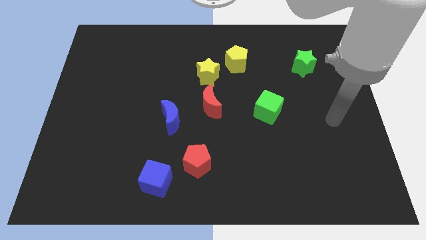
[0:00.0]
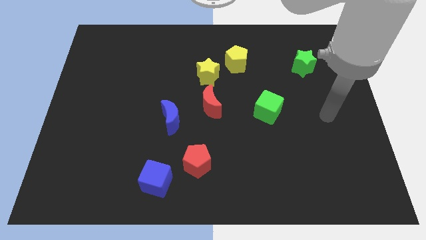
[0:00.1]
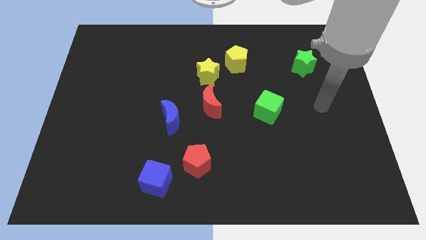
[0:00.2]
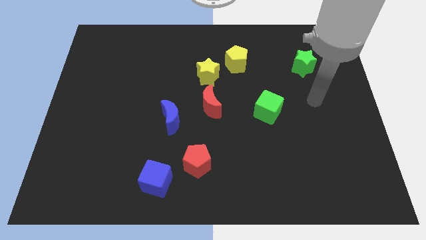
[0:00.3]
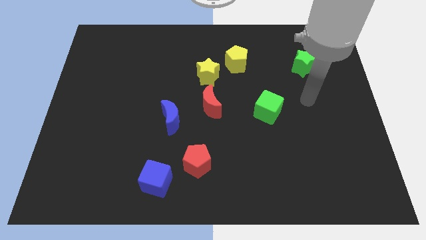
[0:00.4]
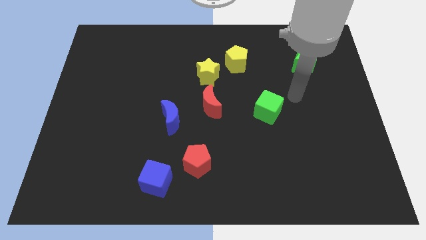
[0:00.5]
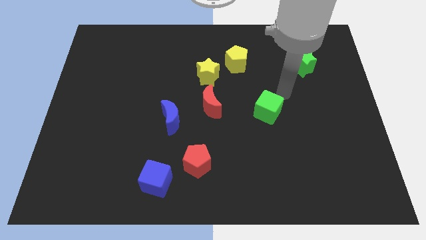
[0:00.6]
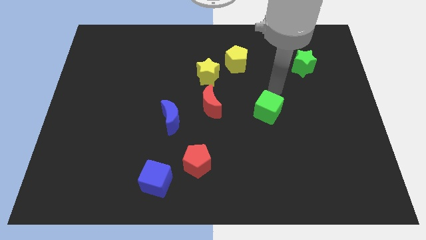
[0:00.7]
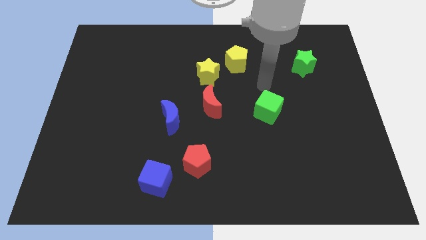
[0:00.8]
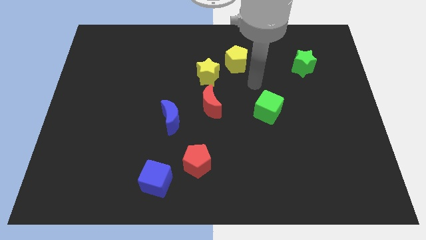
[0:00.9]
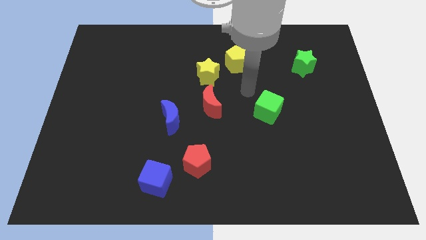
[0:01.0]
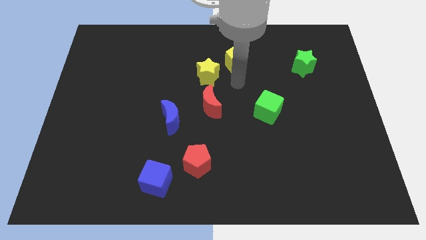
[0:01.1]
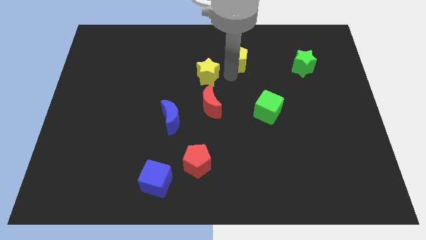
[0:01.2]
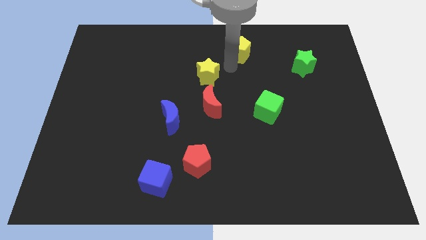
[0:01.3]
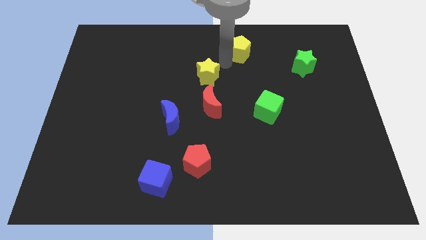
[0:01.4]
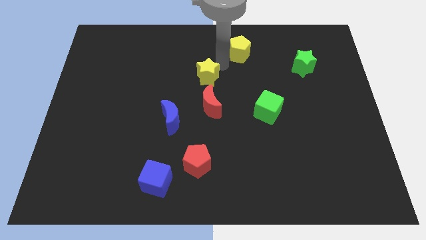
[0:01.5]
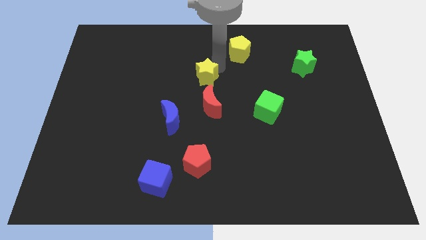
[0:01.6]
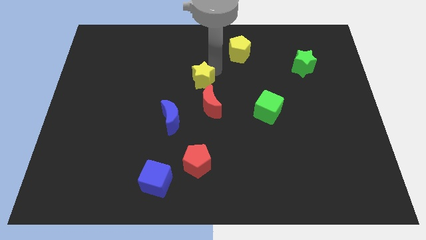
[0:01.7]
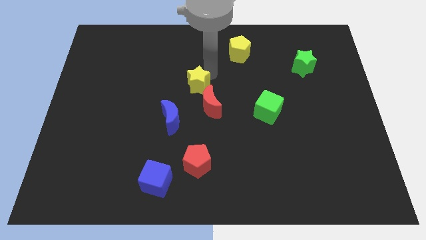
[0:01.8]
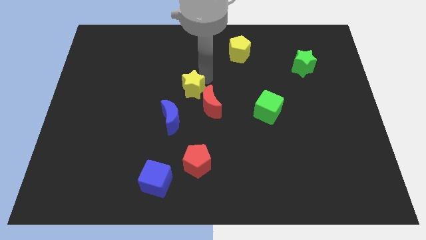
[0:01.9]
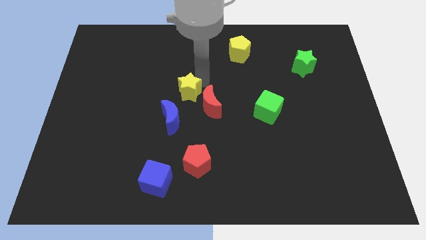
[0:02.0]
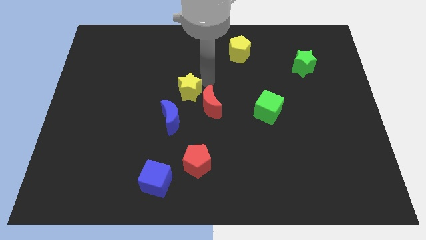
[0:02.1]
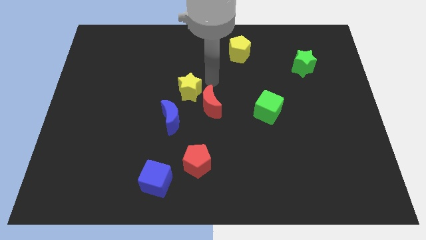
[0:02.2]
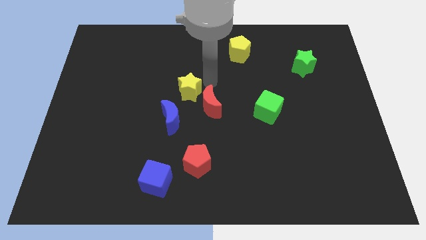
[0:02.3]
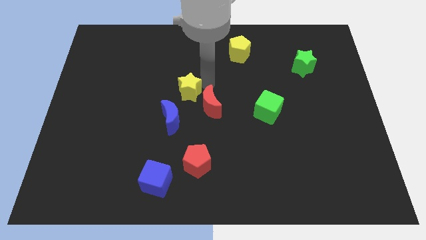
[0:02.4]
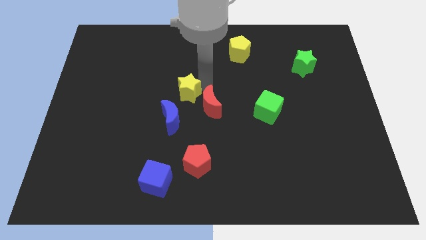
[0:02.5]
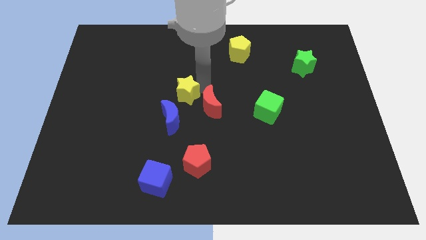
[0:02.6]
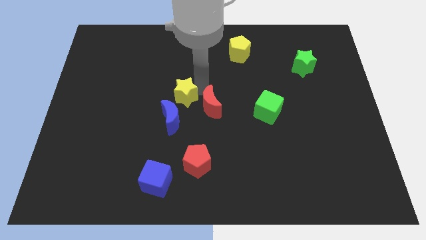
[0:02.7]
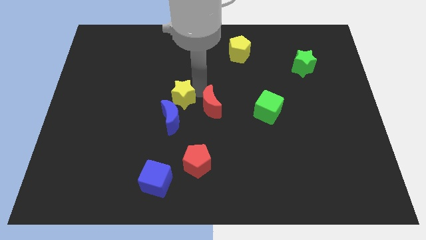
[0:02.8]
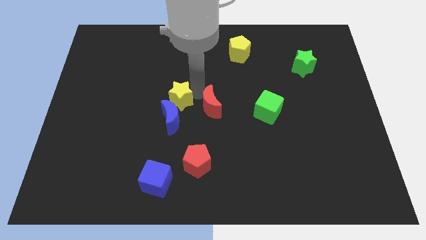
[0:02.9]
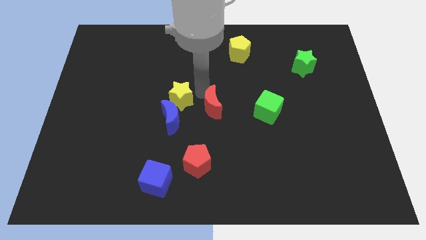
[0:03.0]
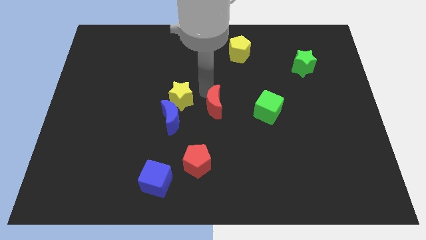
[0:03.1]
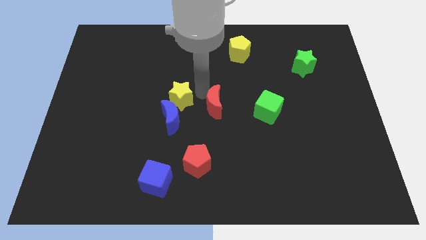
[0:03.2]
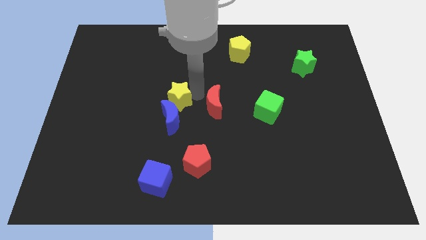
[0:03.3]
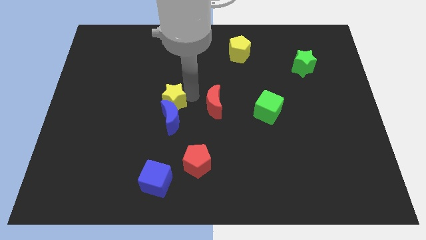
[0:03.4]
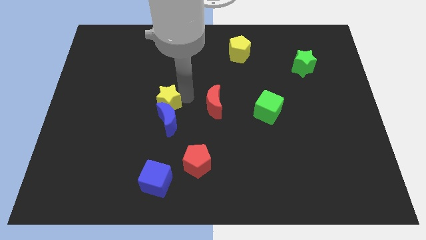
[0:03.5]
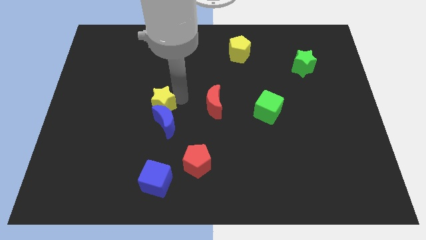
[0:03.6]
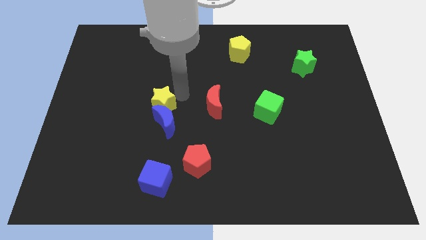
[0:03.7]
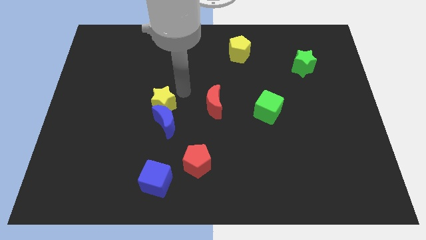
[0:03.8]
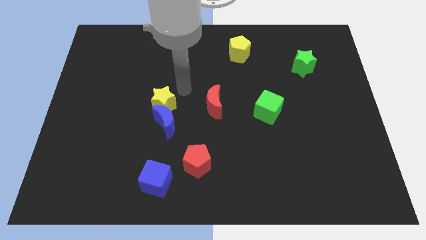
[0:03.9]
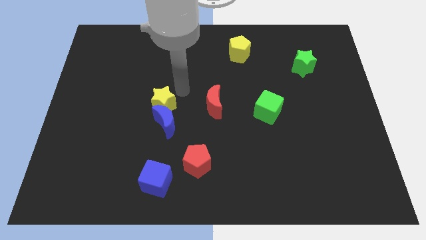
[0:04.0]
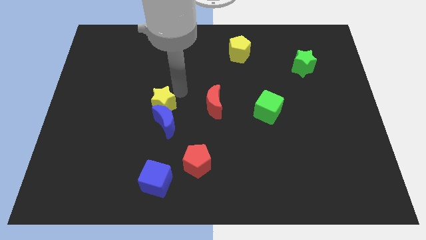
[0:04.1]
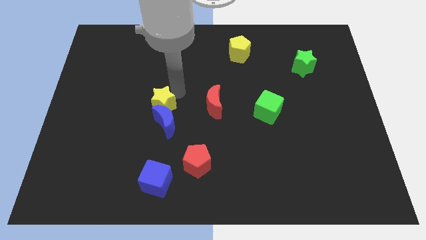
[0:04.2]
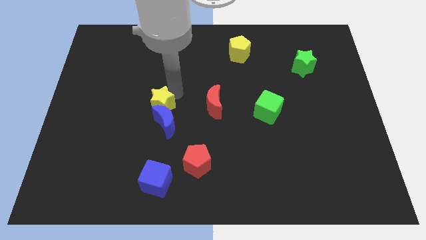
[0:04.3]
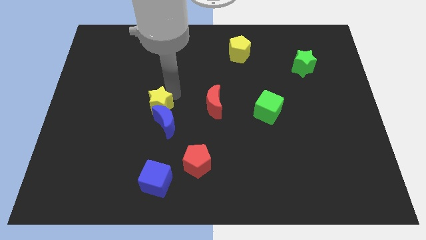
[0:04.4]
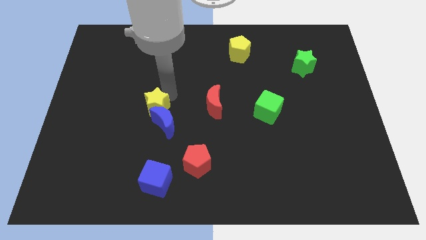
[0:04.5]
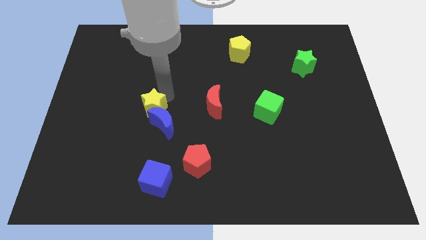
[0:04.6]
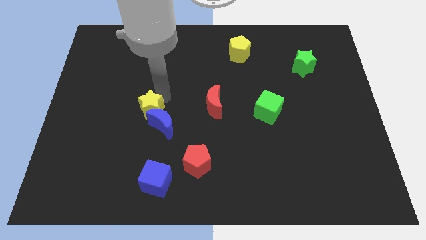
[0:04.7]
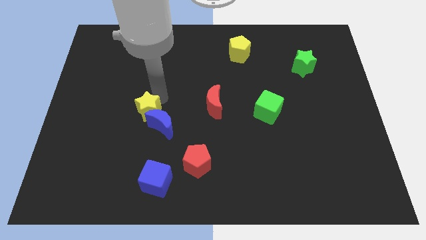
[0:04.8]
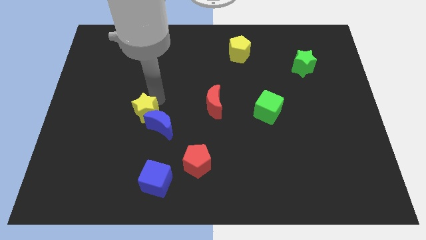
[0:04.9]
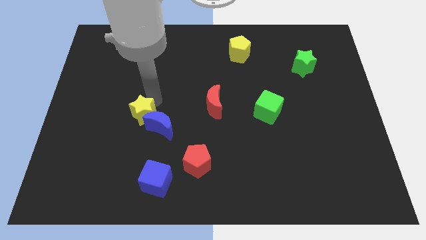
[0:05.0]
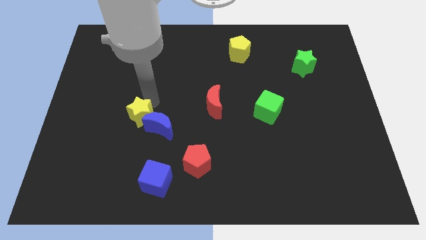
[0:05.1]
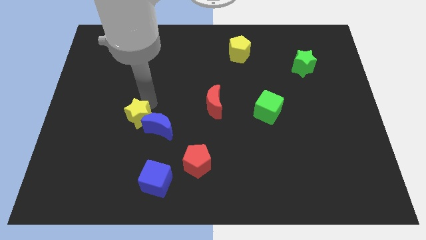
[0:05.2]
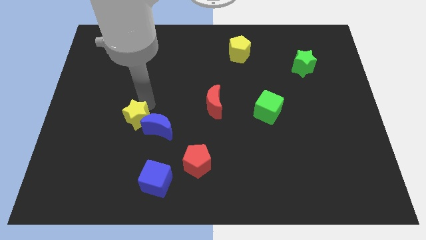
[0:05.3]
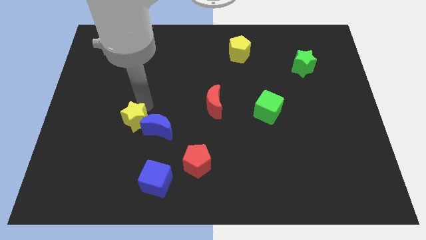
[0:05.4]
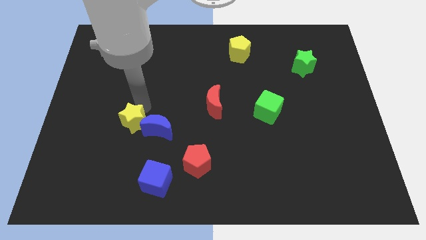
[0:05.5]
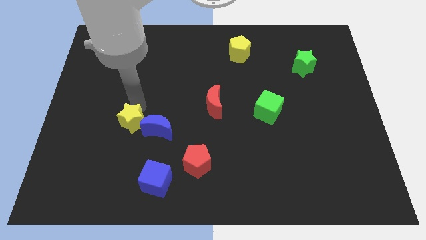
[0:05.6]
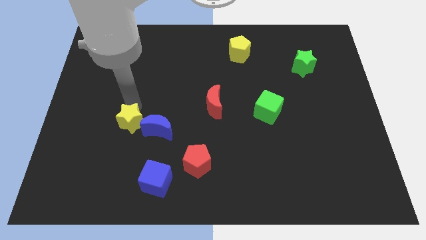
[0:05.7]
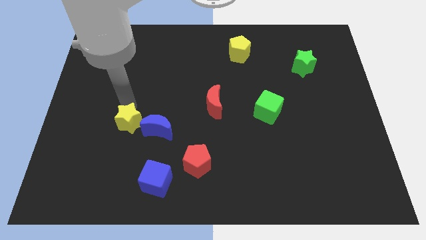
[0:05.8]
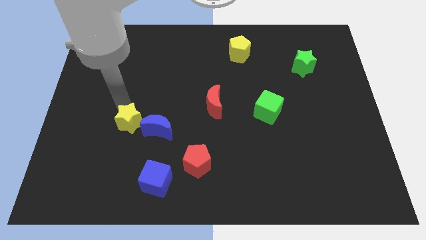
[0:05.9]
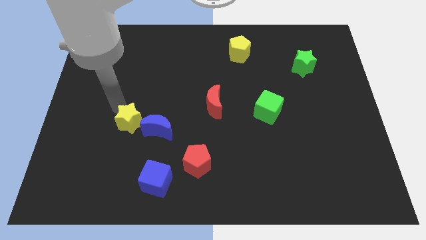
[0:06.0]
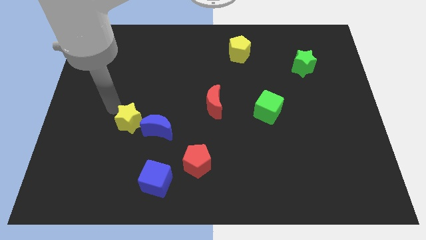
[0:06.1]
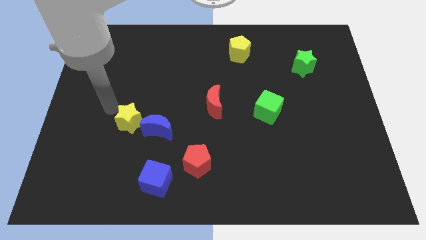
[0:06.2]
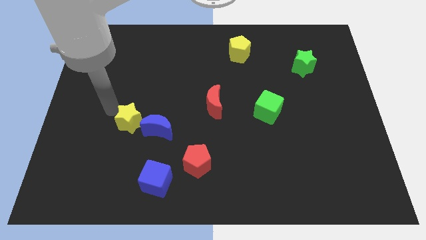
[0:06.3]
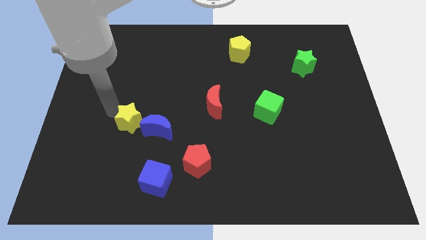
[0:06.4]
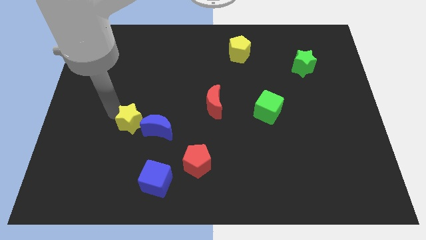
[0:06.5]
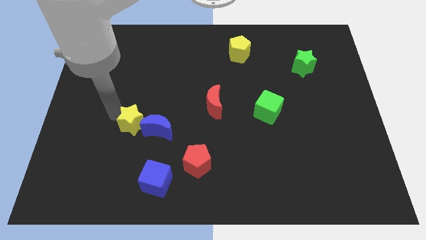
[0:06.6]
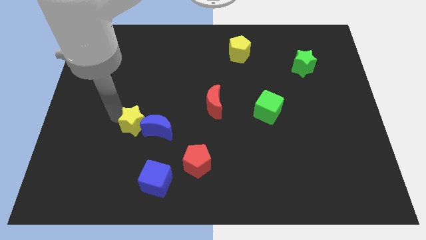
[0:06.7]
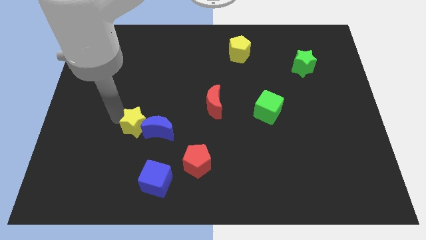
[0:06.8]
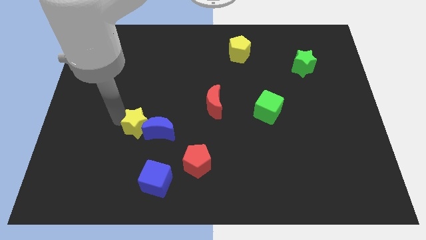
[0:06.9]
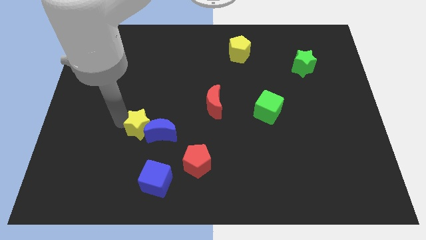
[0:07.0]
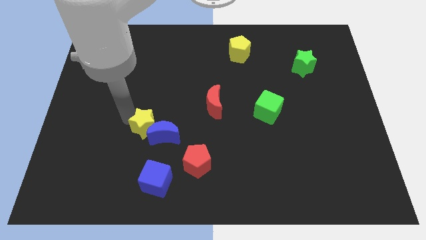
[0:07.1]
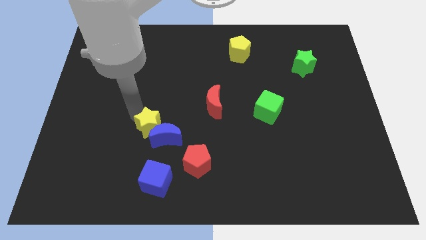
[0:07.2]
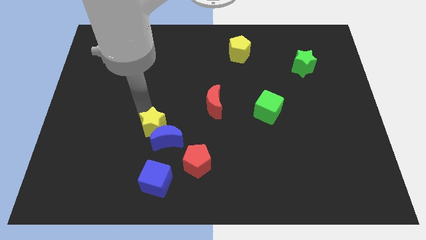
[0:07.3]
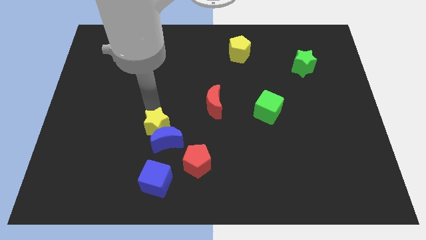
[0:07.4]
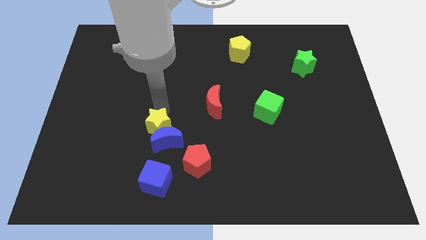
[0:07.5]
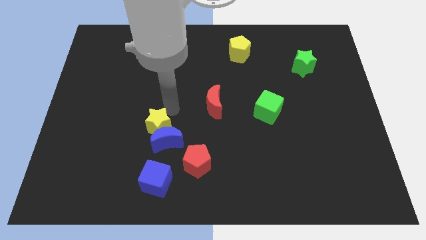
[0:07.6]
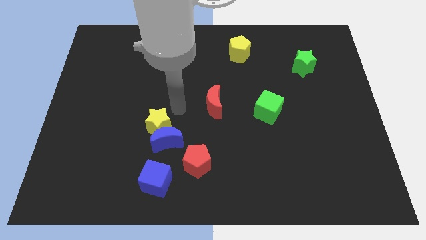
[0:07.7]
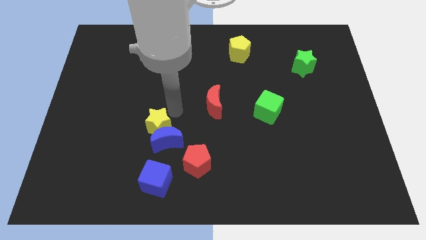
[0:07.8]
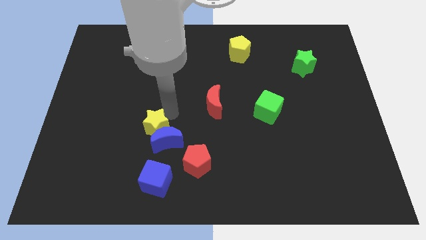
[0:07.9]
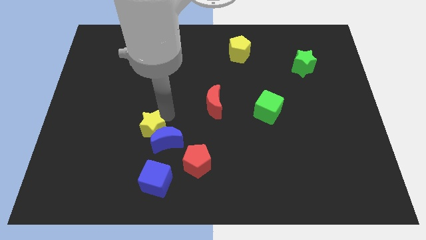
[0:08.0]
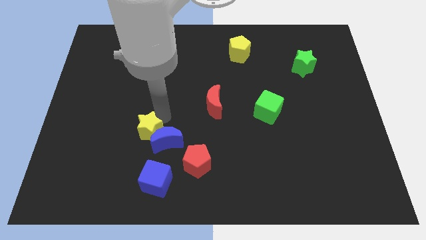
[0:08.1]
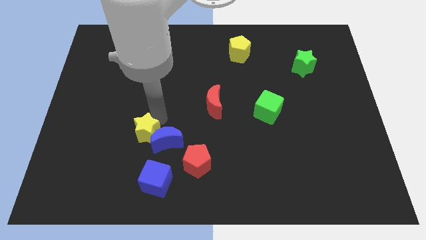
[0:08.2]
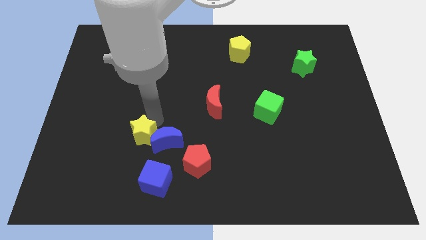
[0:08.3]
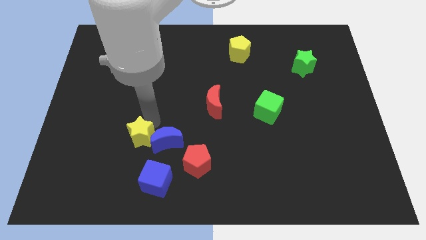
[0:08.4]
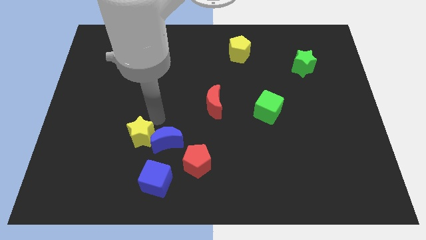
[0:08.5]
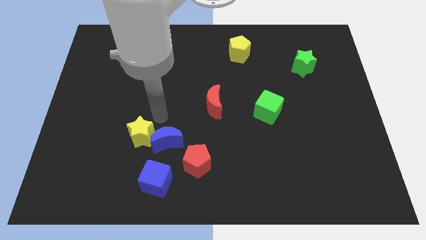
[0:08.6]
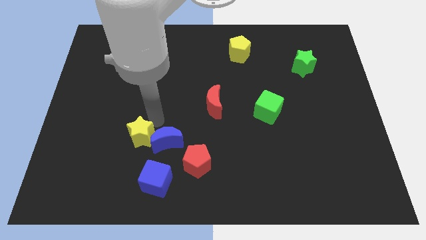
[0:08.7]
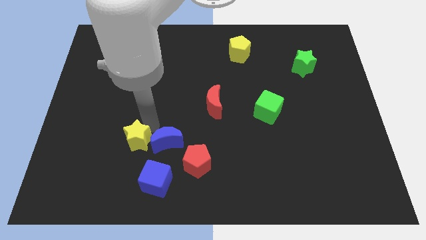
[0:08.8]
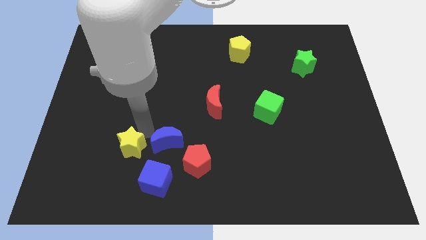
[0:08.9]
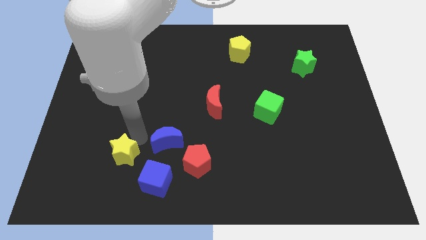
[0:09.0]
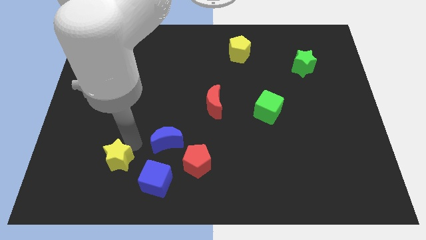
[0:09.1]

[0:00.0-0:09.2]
slide the yellow star just left of the blue cube
